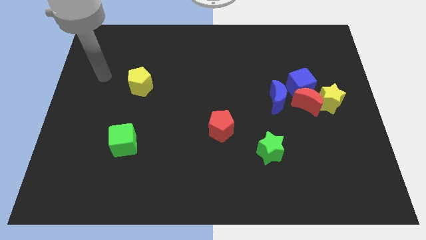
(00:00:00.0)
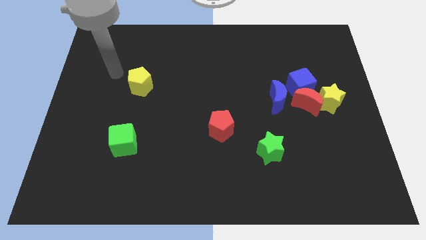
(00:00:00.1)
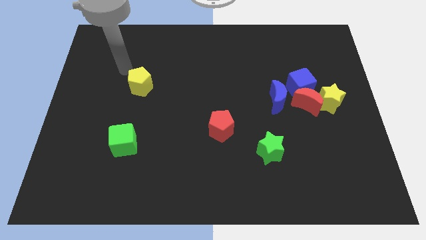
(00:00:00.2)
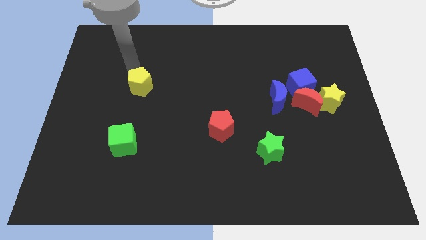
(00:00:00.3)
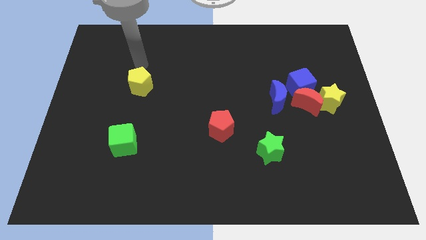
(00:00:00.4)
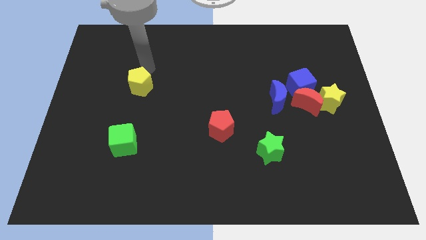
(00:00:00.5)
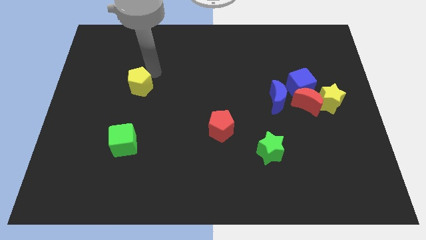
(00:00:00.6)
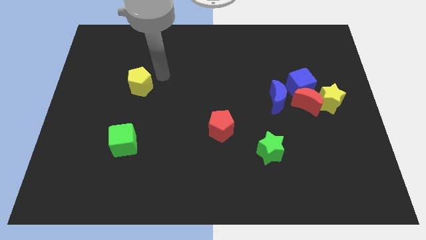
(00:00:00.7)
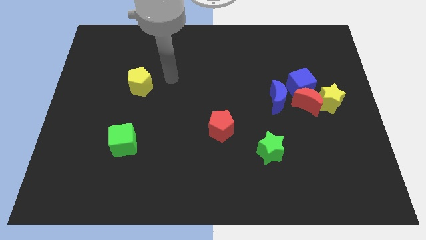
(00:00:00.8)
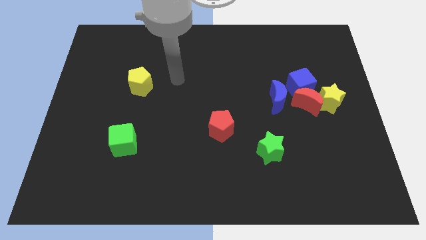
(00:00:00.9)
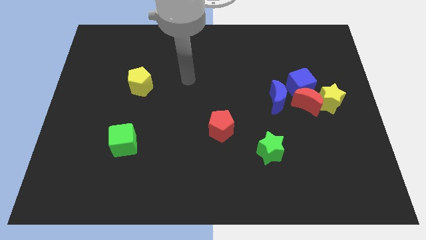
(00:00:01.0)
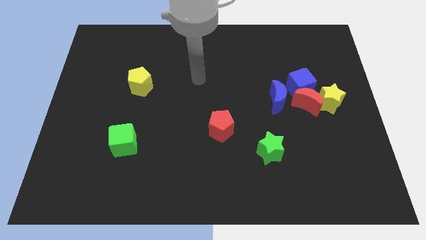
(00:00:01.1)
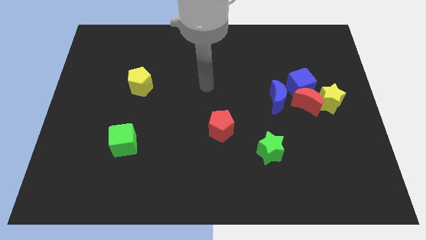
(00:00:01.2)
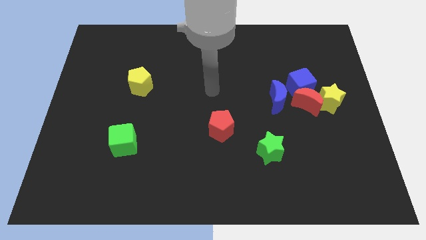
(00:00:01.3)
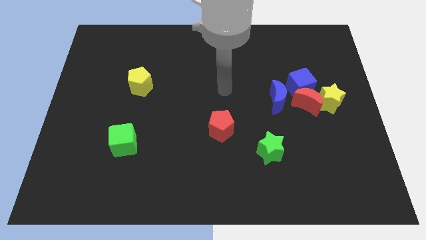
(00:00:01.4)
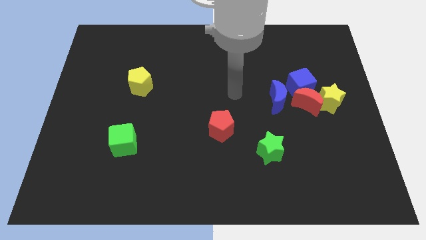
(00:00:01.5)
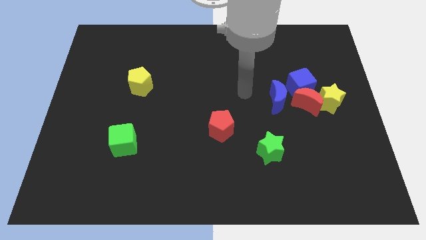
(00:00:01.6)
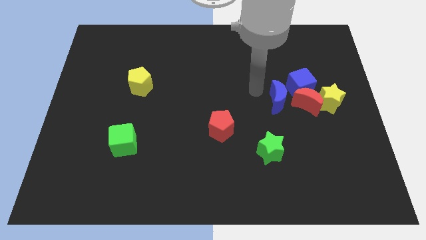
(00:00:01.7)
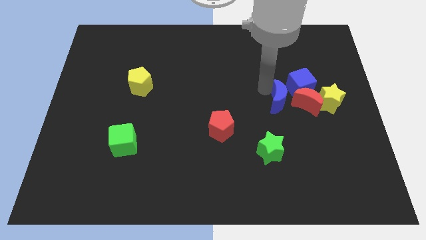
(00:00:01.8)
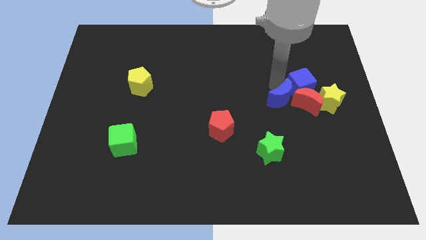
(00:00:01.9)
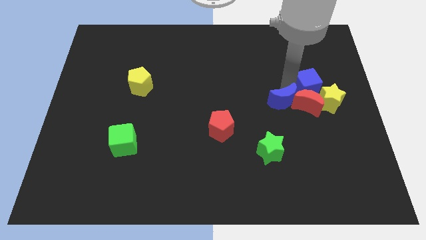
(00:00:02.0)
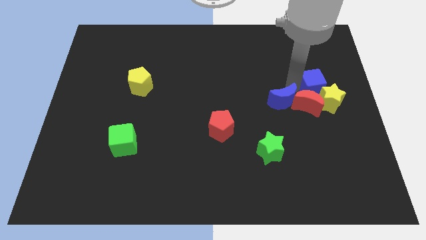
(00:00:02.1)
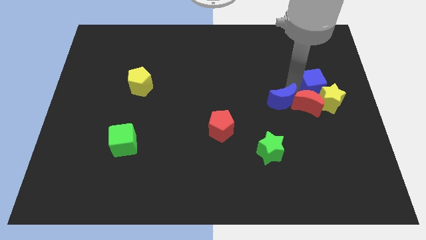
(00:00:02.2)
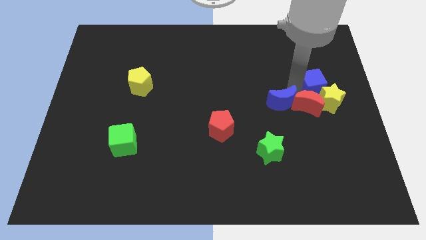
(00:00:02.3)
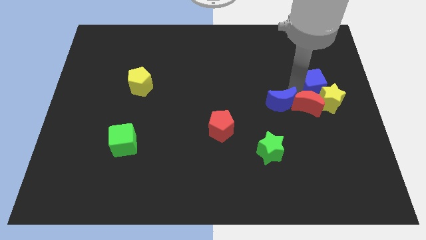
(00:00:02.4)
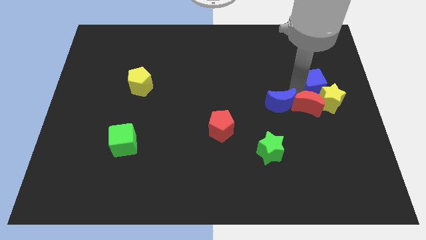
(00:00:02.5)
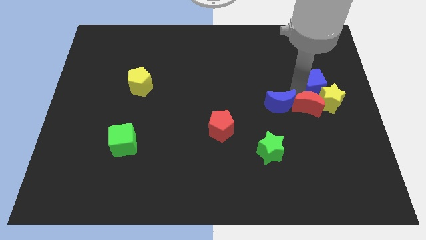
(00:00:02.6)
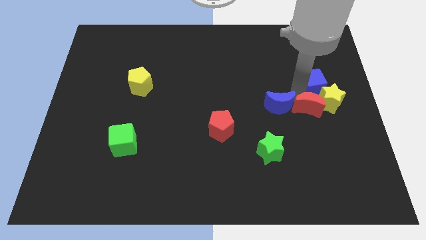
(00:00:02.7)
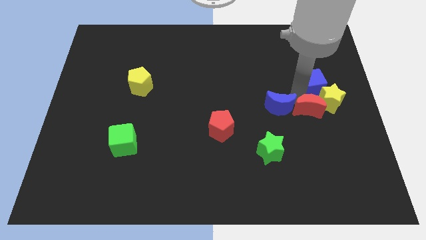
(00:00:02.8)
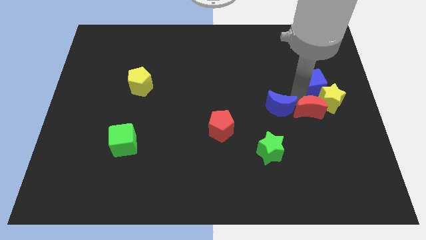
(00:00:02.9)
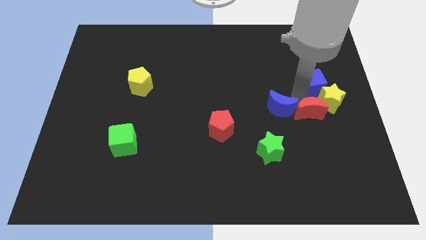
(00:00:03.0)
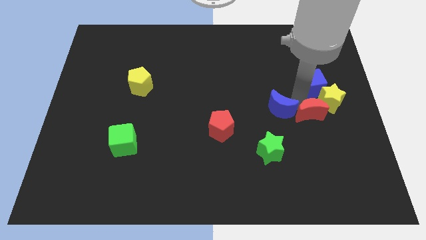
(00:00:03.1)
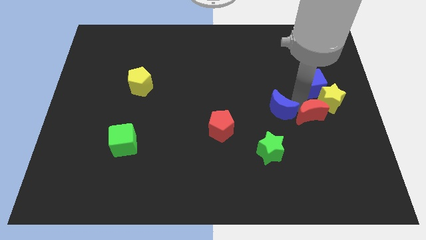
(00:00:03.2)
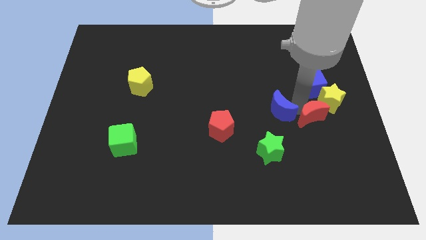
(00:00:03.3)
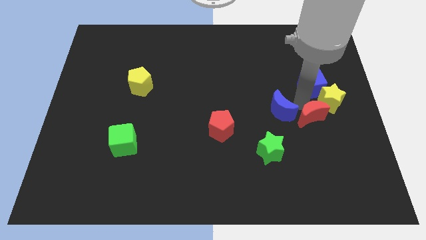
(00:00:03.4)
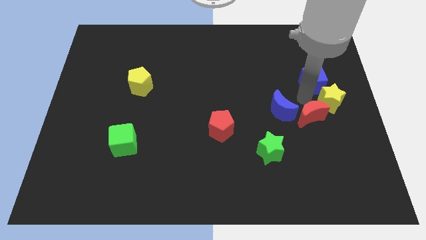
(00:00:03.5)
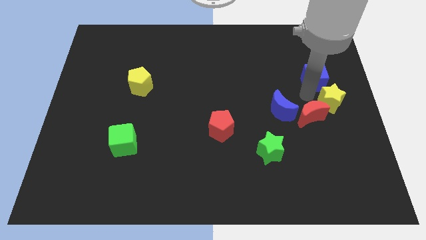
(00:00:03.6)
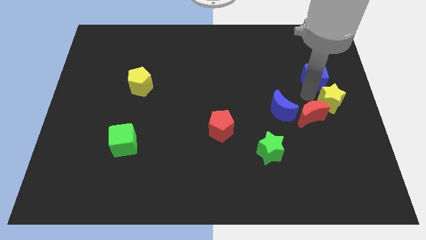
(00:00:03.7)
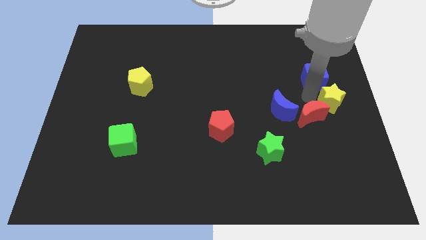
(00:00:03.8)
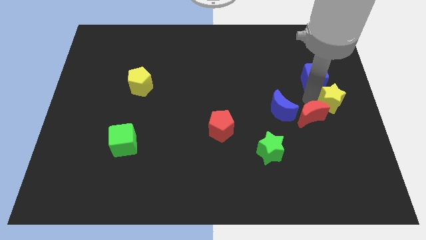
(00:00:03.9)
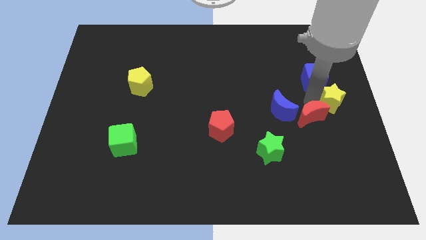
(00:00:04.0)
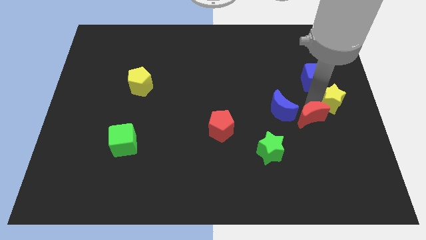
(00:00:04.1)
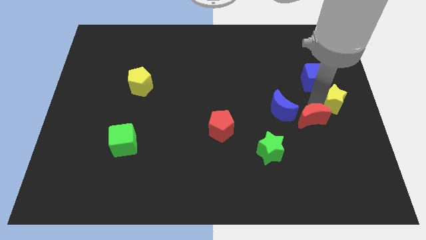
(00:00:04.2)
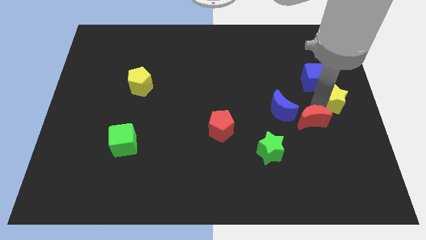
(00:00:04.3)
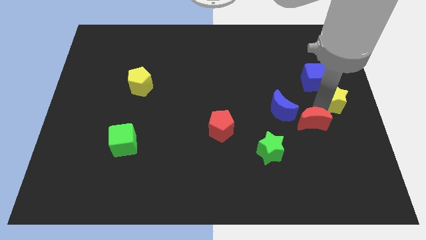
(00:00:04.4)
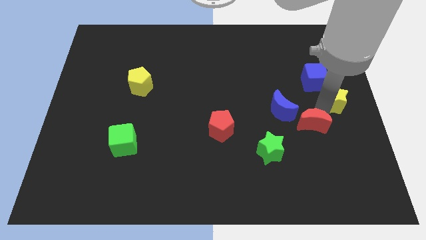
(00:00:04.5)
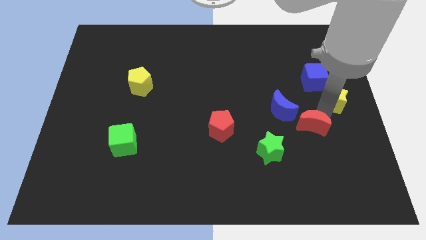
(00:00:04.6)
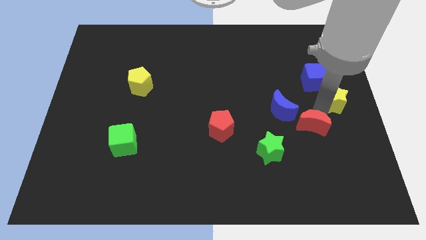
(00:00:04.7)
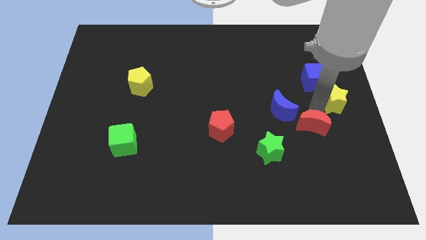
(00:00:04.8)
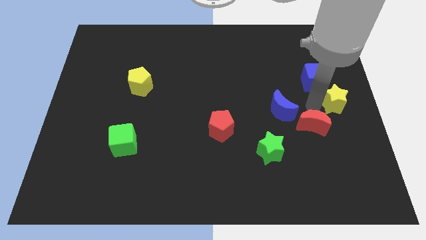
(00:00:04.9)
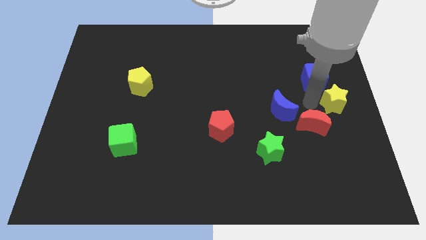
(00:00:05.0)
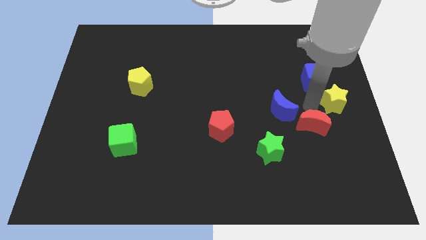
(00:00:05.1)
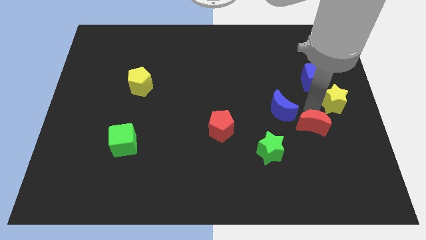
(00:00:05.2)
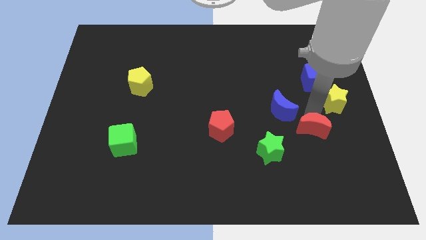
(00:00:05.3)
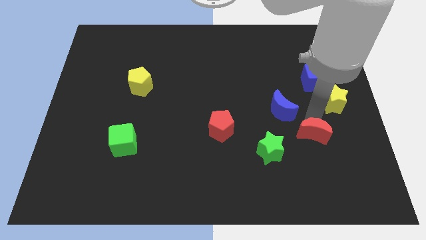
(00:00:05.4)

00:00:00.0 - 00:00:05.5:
separate the red moon from the clump

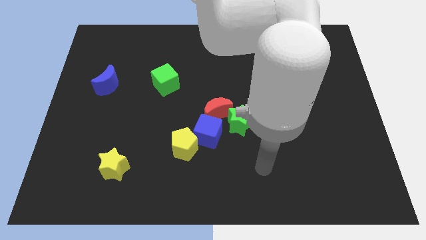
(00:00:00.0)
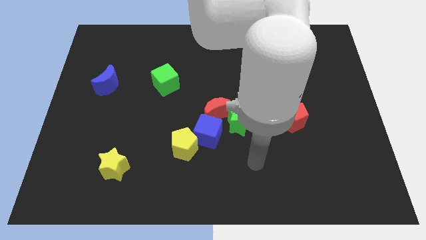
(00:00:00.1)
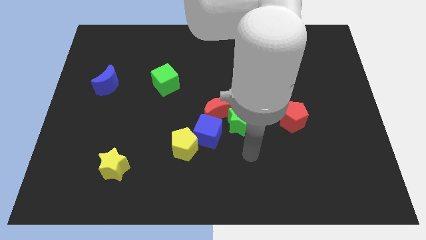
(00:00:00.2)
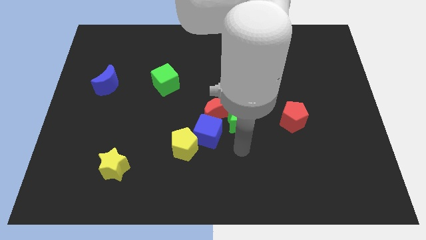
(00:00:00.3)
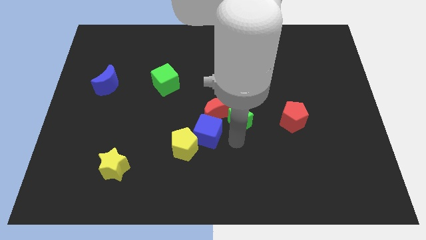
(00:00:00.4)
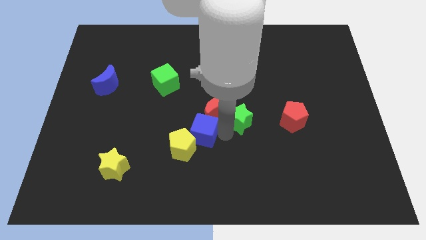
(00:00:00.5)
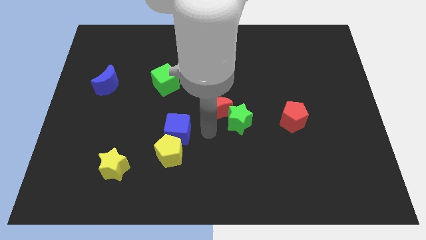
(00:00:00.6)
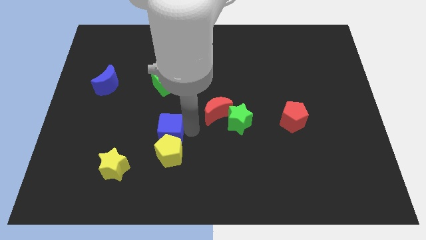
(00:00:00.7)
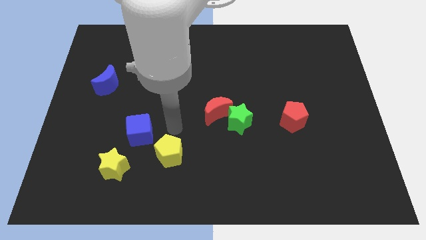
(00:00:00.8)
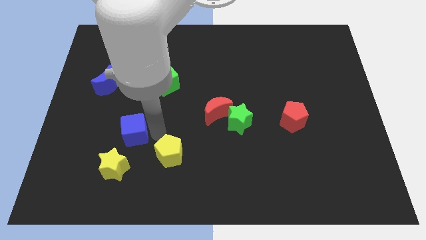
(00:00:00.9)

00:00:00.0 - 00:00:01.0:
move the yellow pentagon away from the blue cube

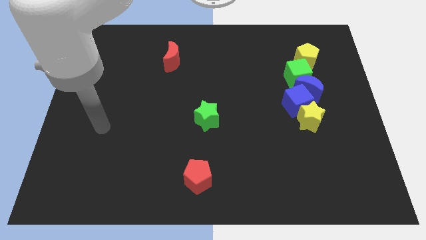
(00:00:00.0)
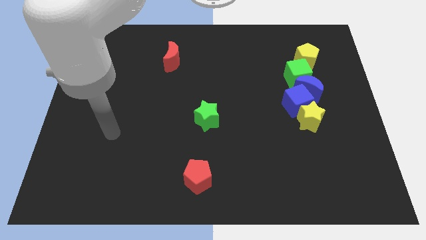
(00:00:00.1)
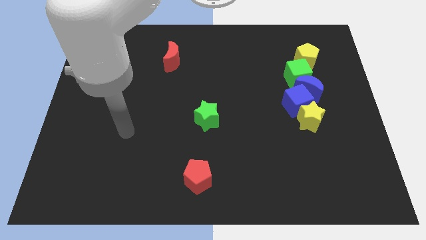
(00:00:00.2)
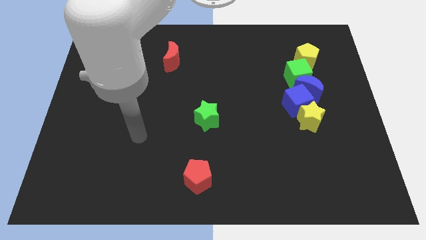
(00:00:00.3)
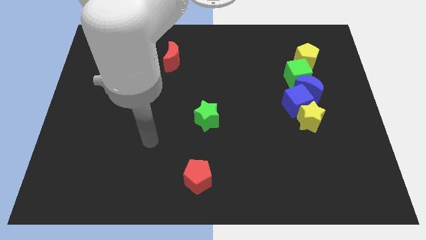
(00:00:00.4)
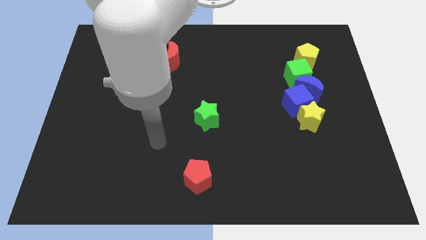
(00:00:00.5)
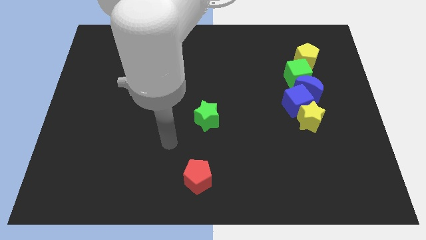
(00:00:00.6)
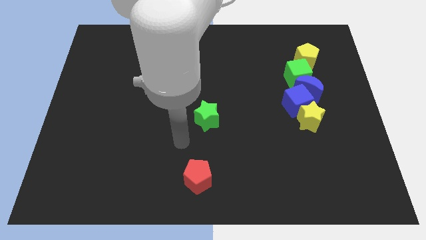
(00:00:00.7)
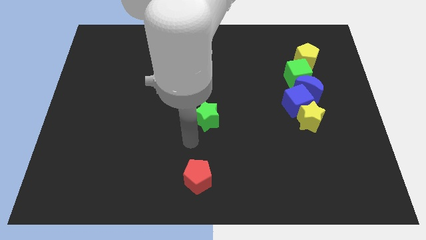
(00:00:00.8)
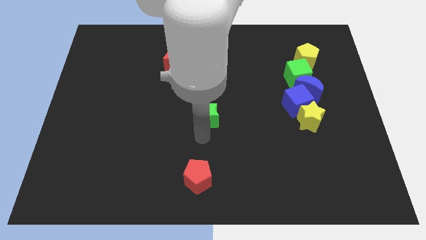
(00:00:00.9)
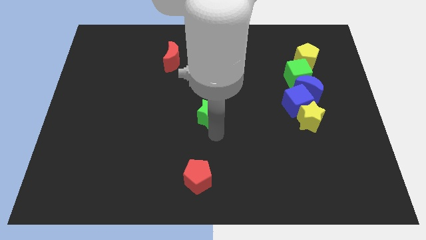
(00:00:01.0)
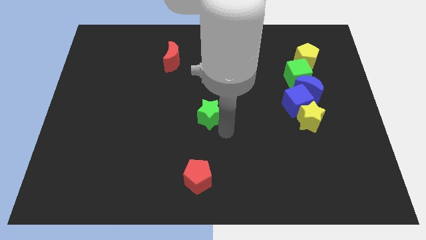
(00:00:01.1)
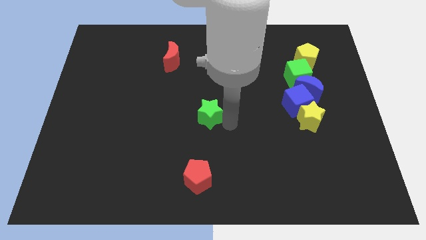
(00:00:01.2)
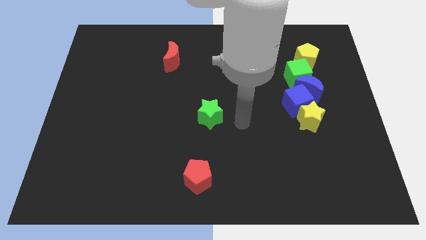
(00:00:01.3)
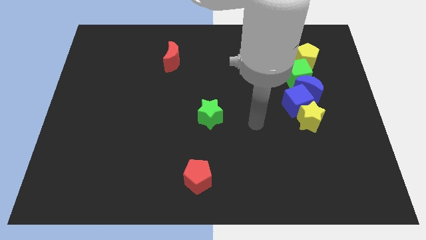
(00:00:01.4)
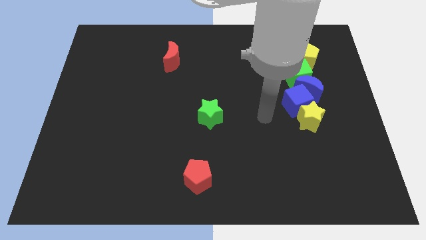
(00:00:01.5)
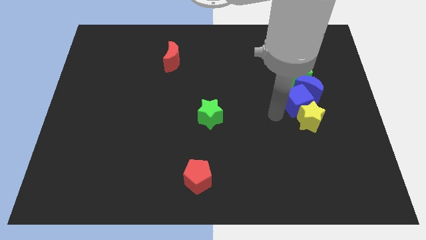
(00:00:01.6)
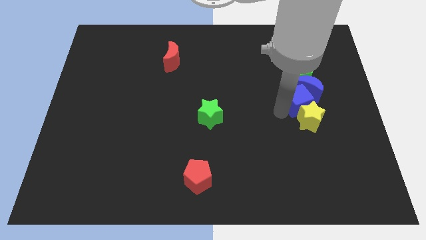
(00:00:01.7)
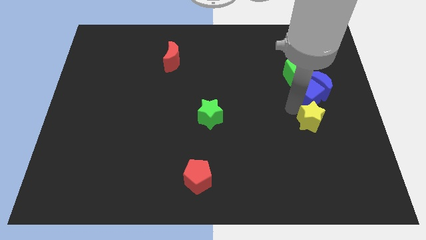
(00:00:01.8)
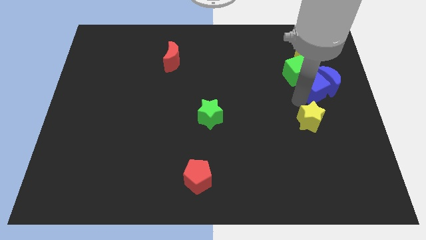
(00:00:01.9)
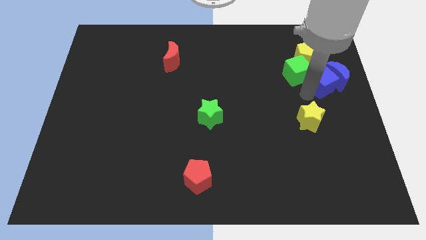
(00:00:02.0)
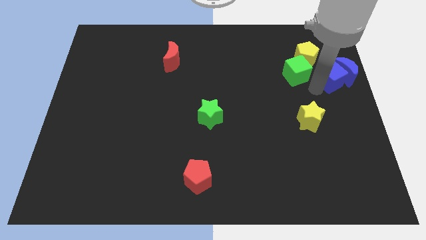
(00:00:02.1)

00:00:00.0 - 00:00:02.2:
separate the blue moon from the green cube, blue cube, and yellow star

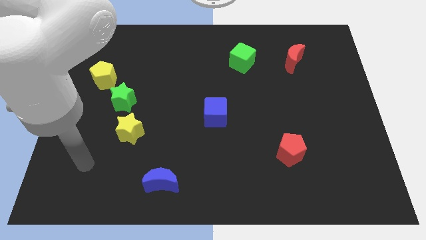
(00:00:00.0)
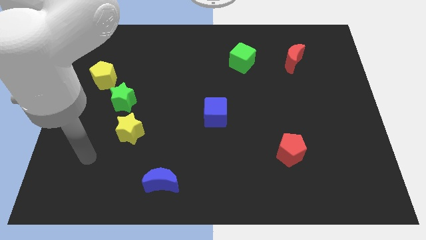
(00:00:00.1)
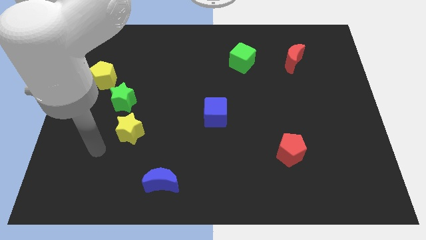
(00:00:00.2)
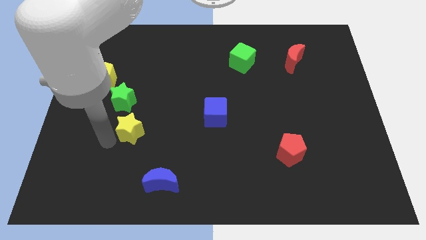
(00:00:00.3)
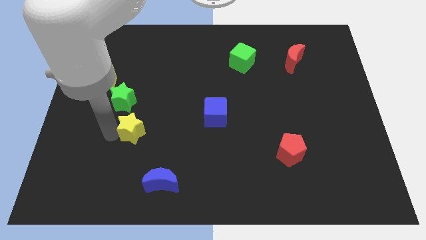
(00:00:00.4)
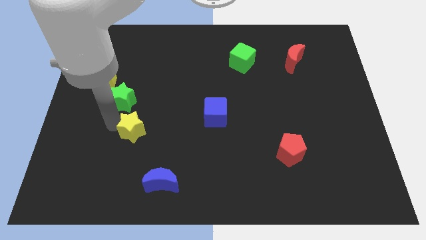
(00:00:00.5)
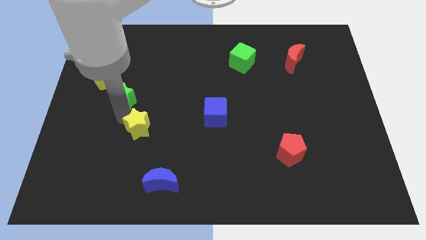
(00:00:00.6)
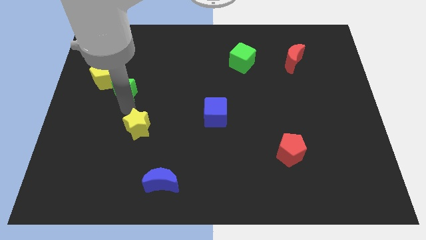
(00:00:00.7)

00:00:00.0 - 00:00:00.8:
separate the yellow star from the green star
